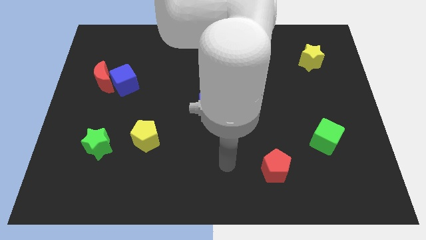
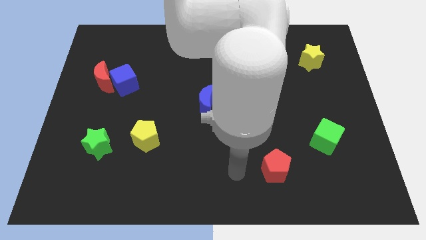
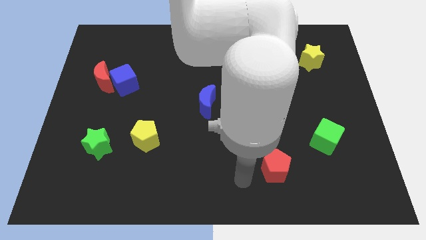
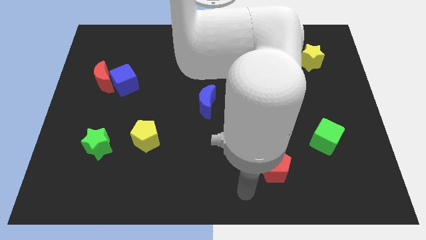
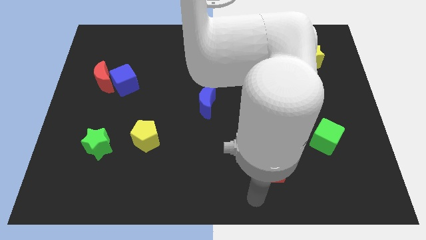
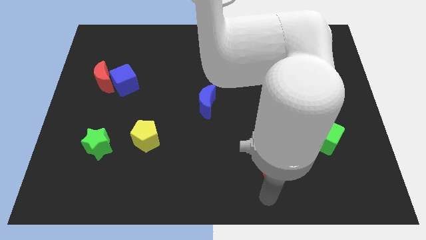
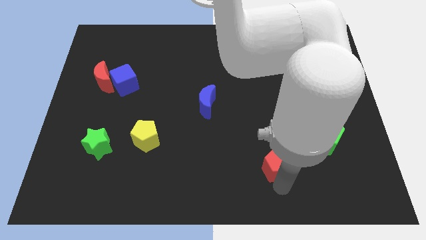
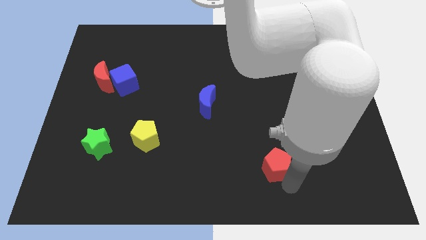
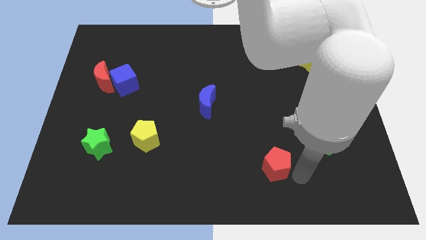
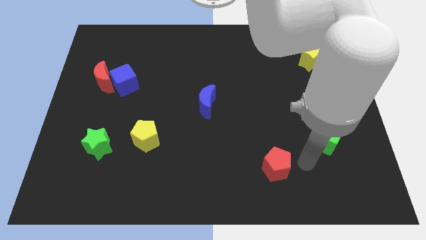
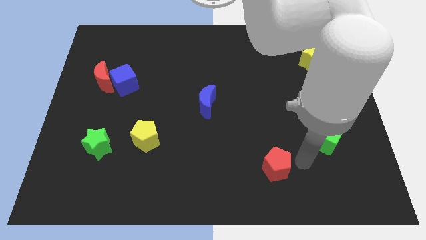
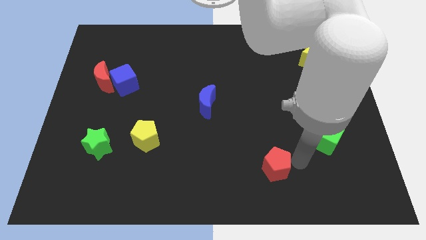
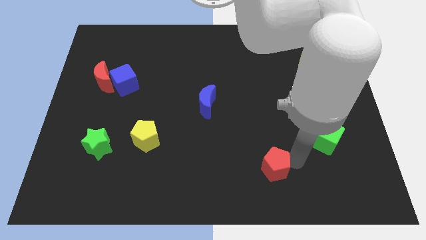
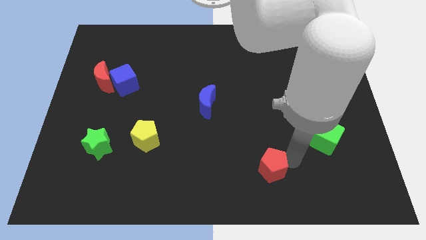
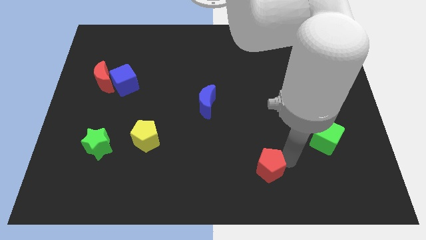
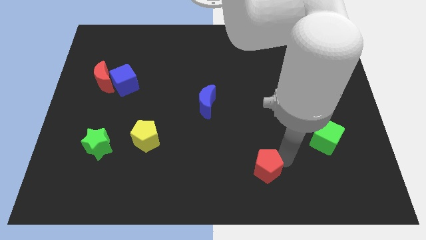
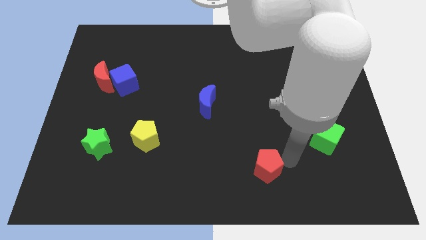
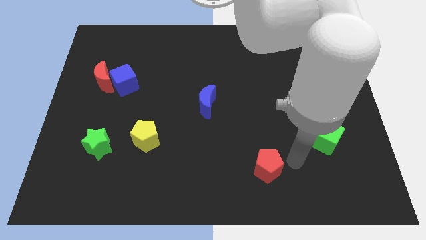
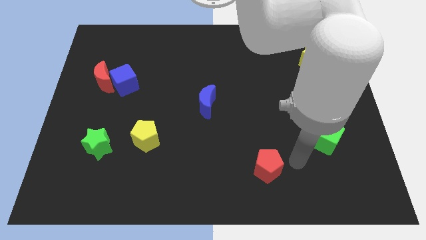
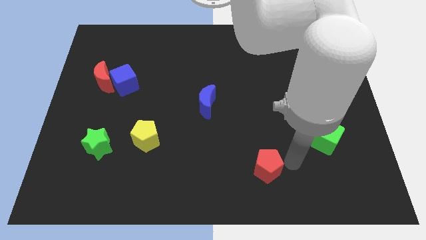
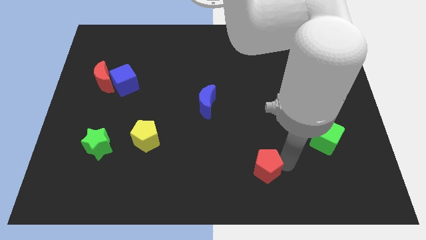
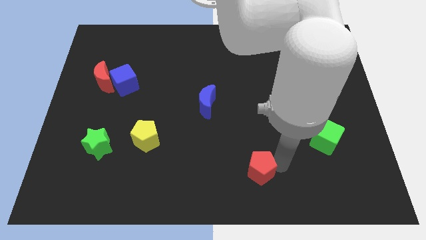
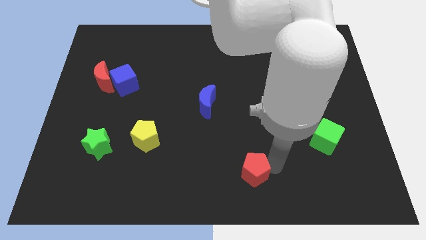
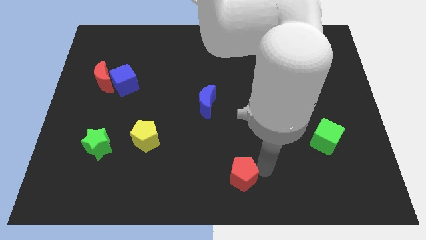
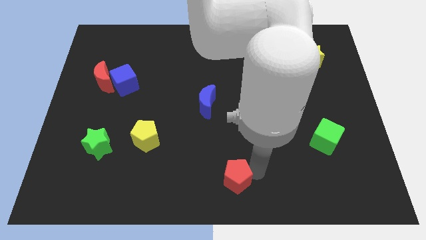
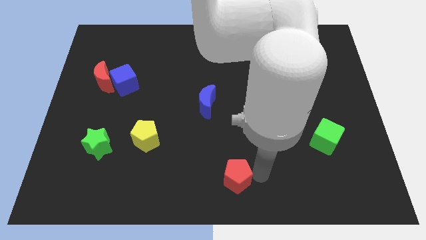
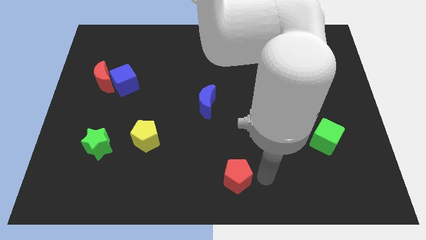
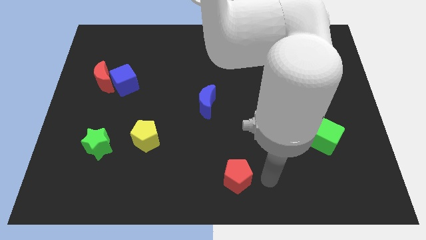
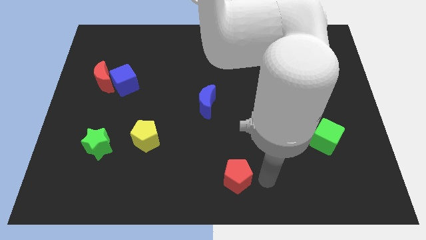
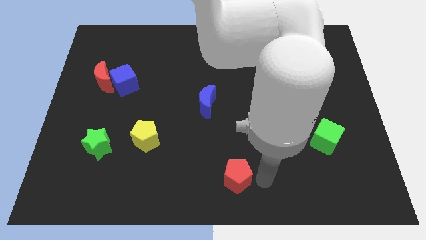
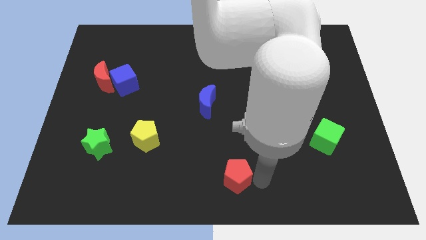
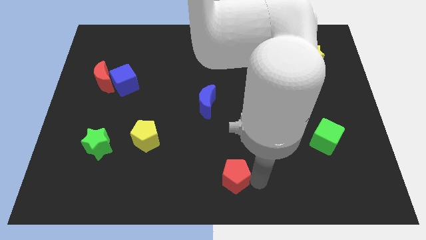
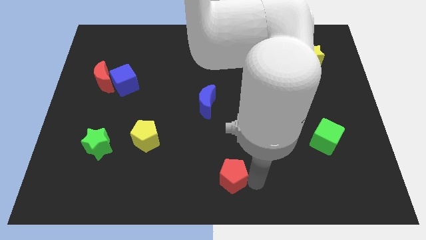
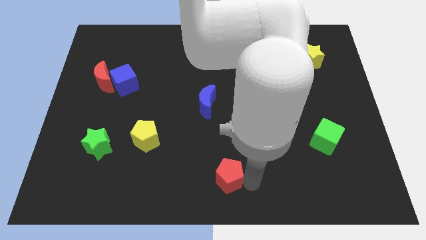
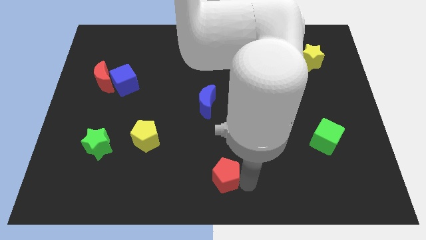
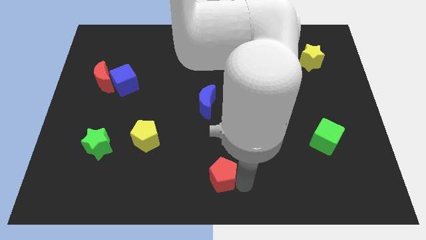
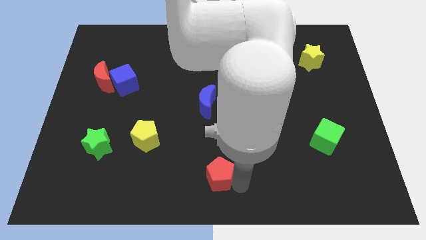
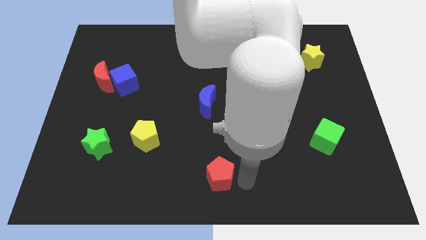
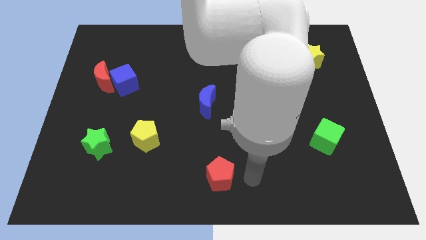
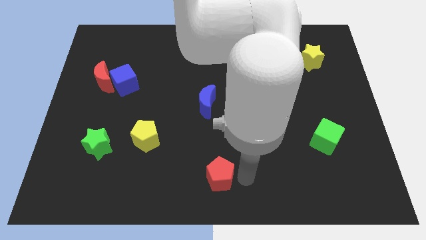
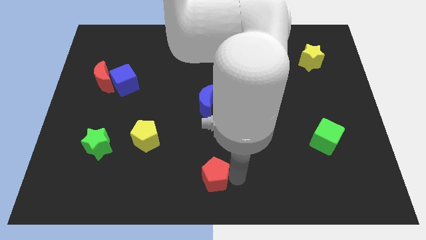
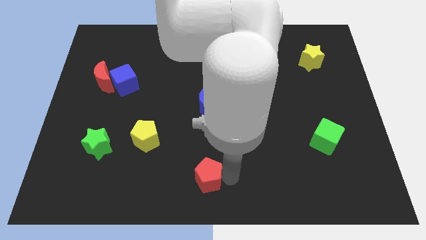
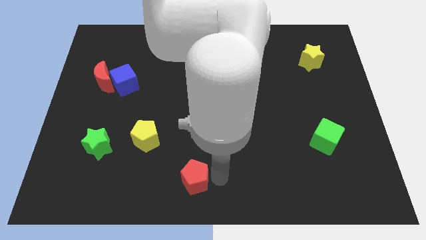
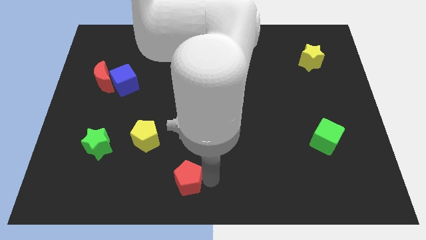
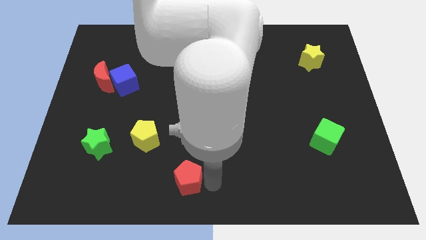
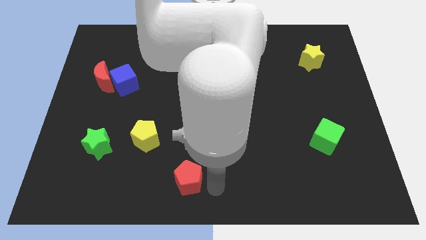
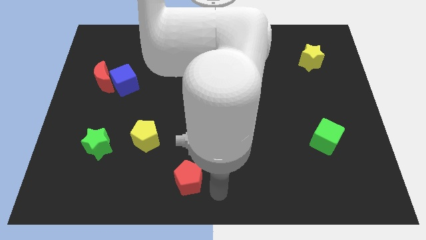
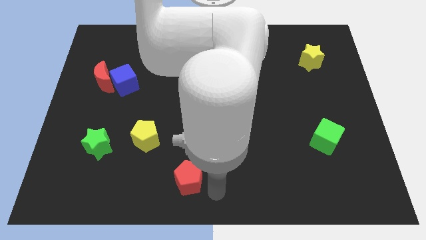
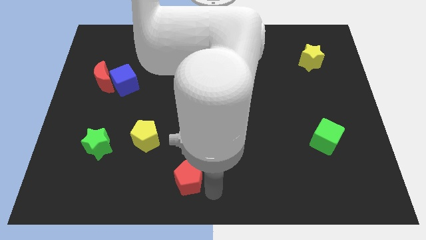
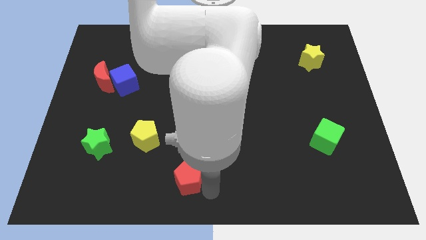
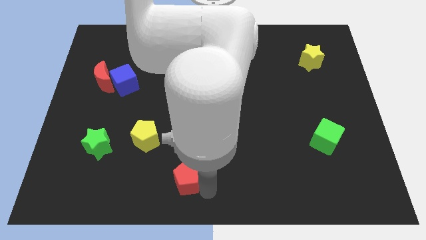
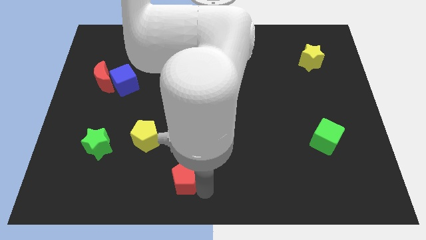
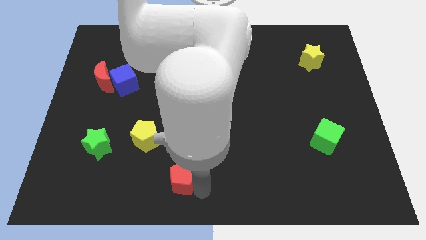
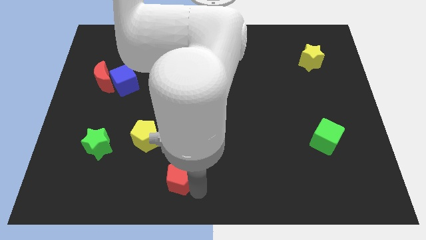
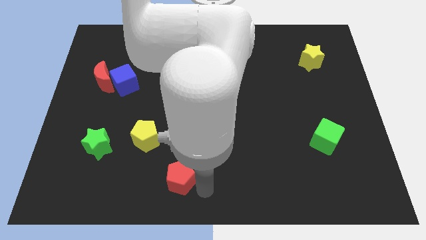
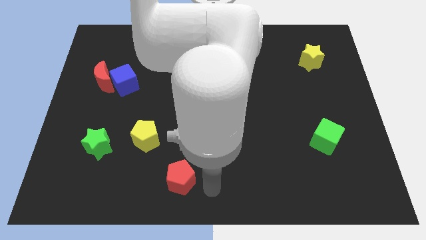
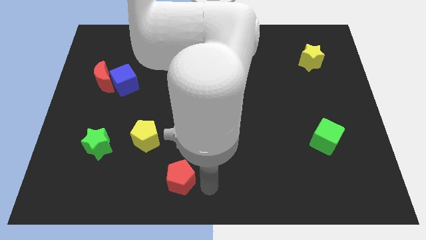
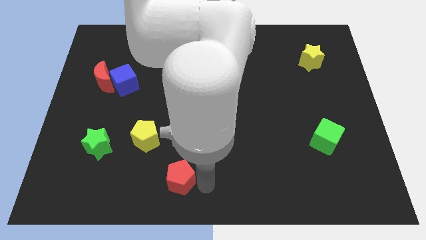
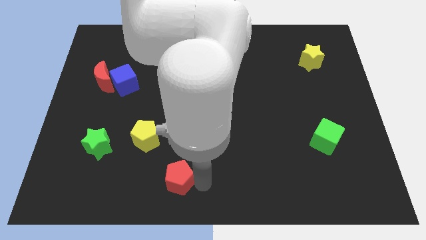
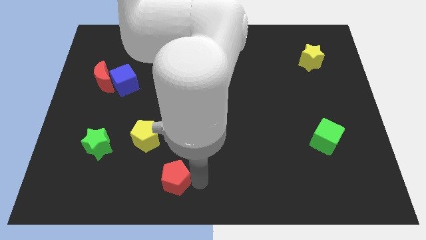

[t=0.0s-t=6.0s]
push the red pentagon left

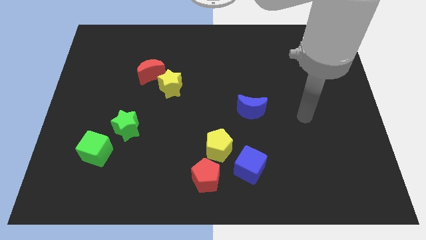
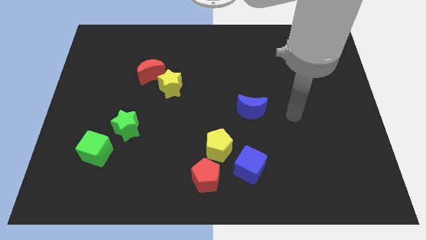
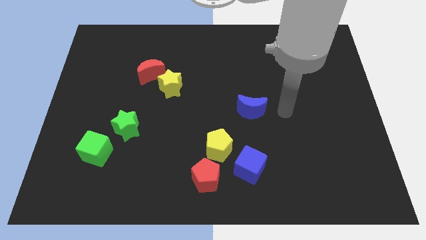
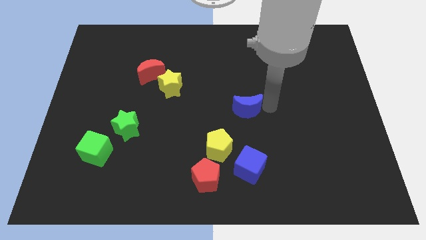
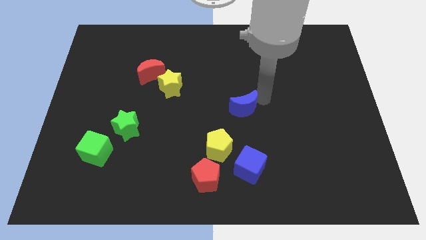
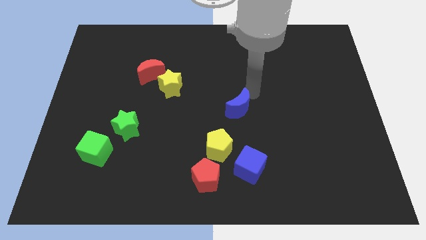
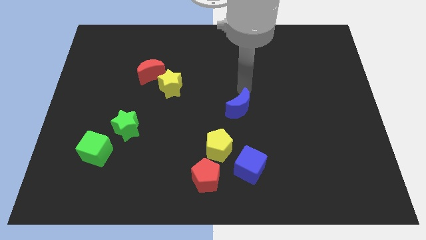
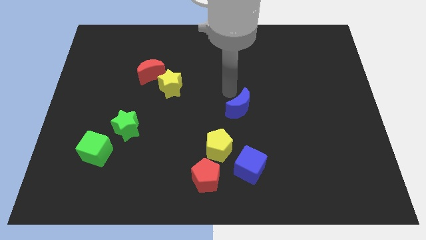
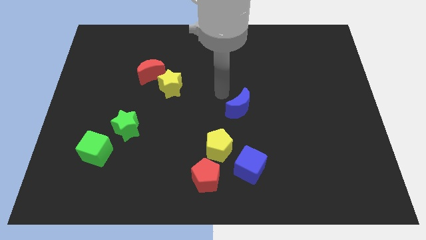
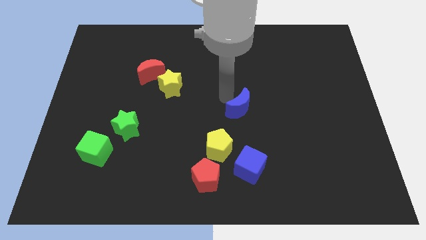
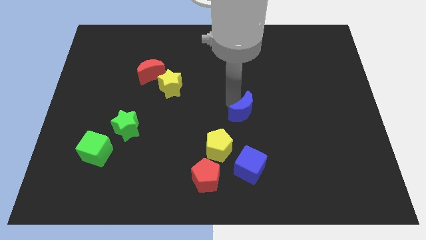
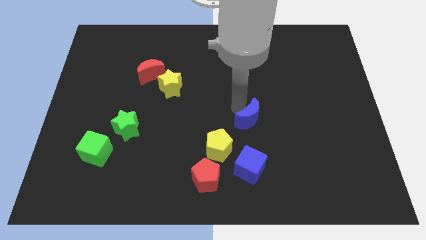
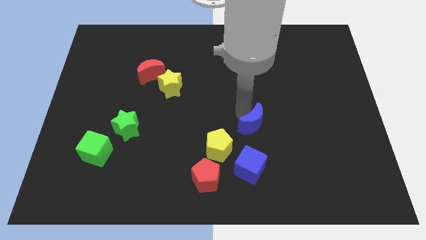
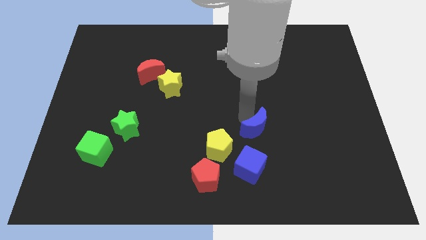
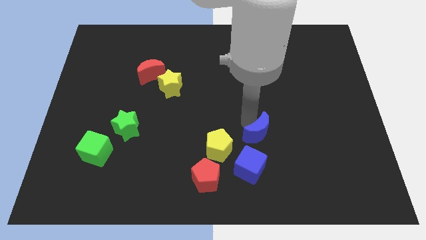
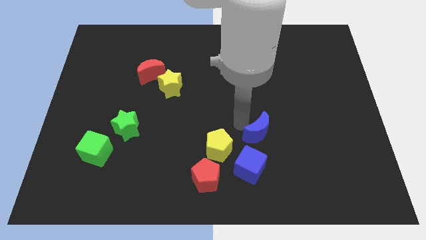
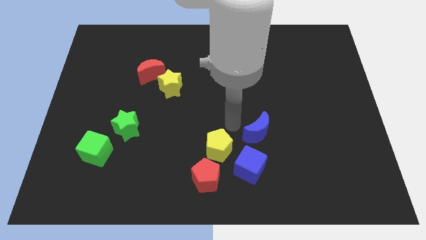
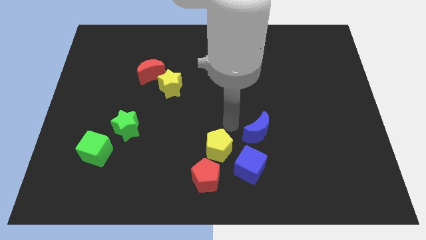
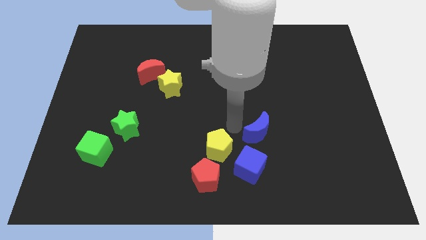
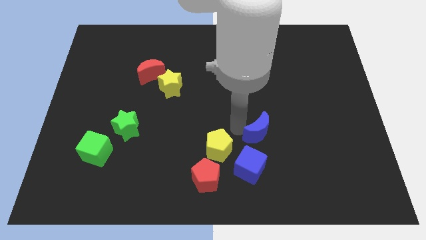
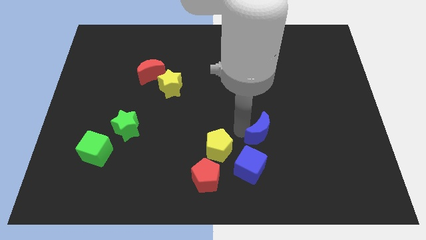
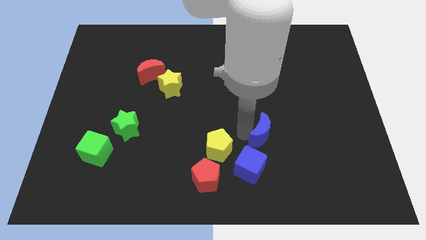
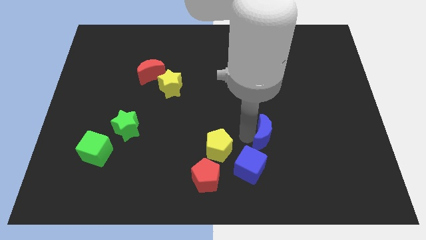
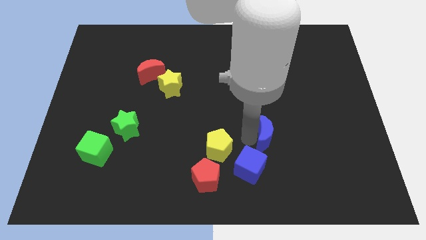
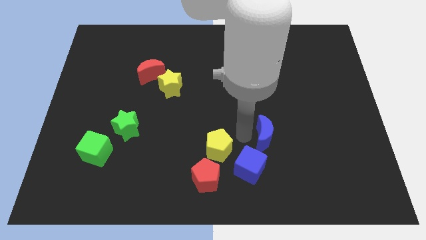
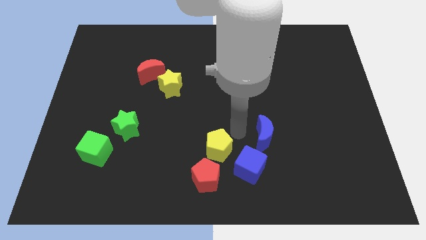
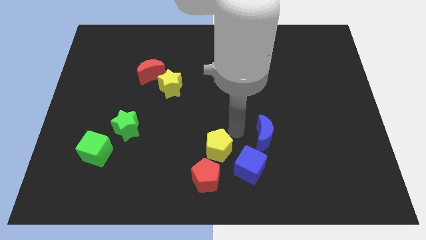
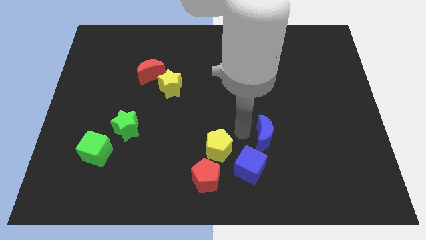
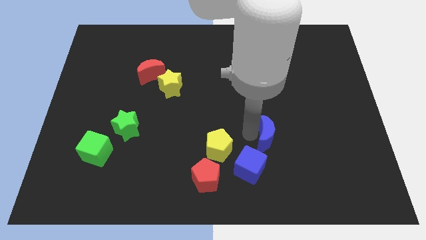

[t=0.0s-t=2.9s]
move the blue moon a little bit down and to the right diagonally
